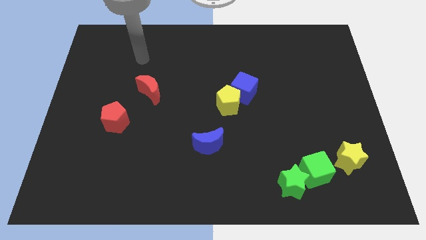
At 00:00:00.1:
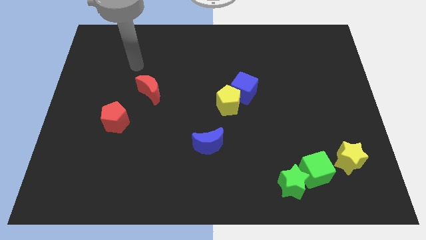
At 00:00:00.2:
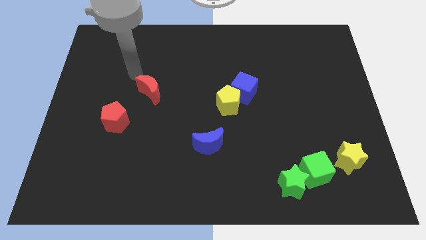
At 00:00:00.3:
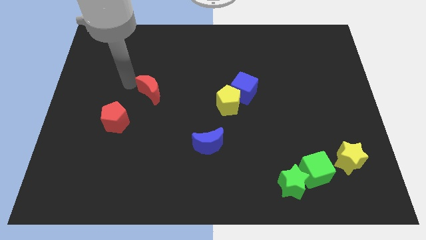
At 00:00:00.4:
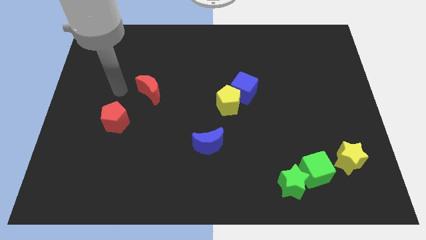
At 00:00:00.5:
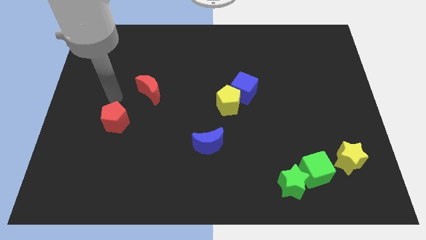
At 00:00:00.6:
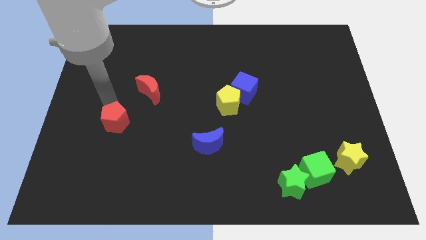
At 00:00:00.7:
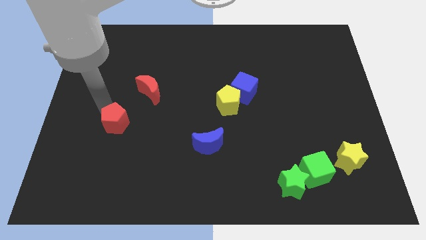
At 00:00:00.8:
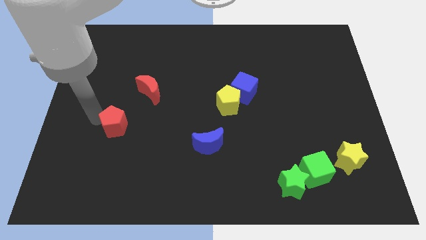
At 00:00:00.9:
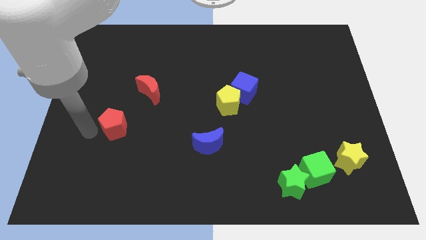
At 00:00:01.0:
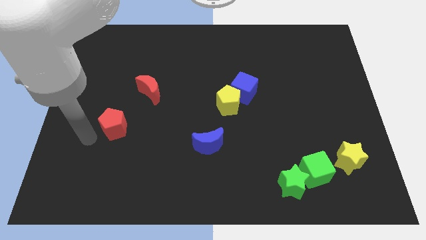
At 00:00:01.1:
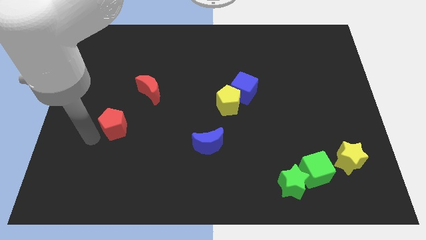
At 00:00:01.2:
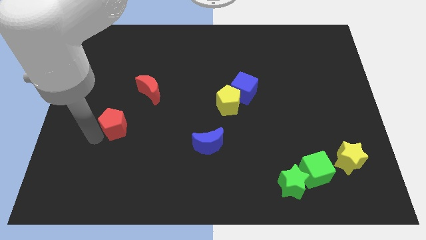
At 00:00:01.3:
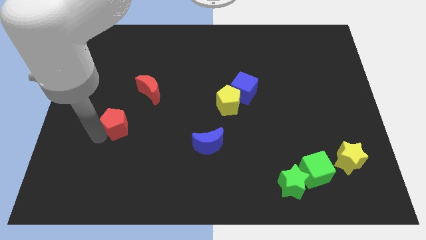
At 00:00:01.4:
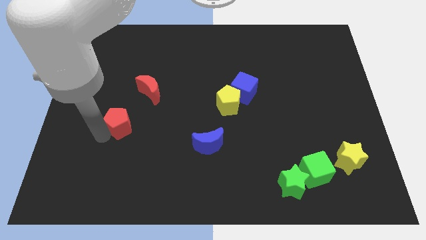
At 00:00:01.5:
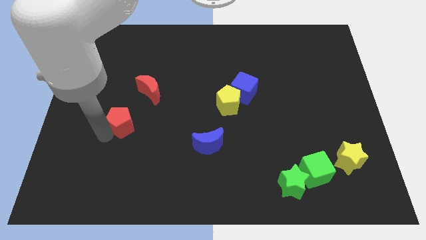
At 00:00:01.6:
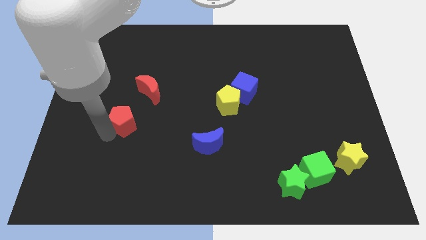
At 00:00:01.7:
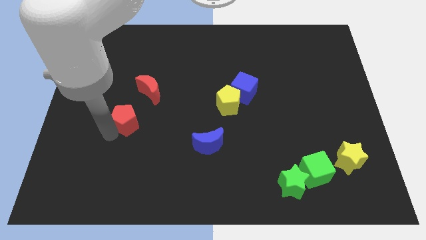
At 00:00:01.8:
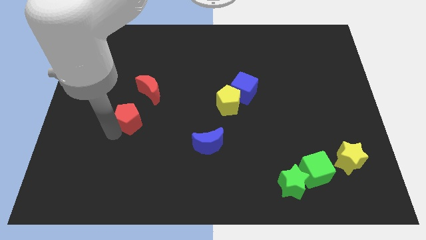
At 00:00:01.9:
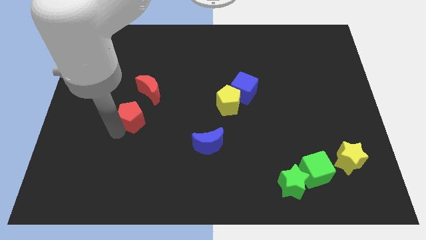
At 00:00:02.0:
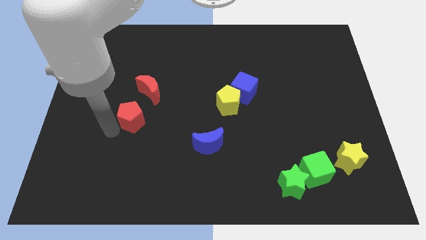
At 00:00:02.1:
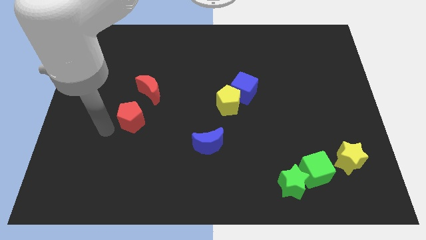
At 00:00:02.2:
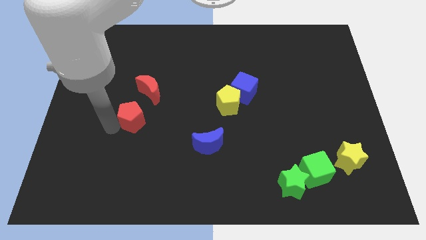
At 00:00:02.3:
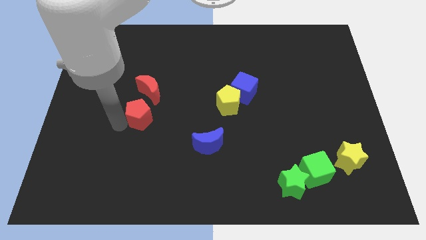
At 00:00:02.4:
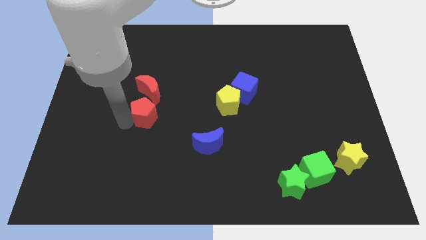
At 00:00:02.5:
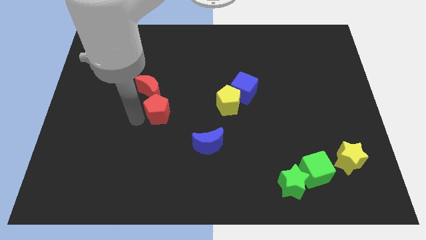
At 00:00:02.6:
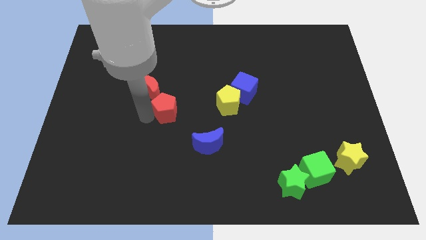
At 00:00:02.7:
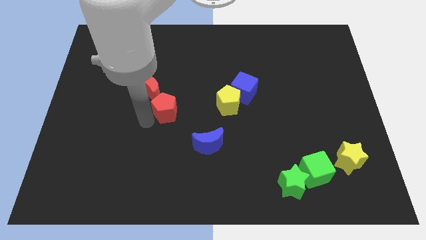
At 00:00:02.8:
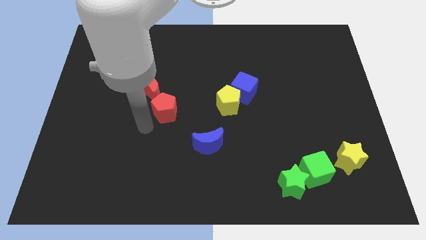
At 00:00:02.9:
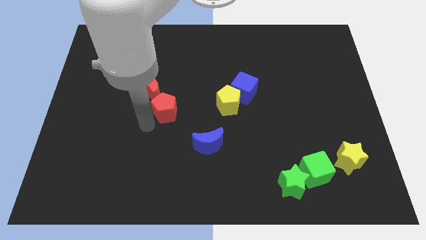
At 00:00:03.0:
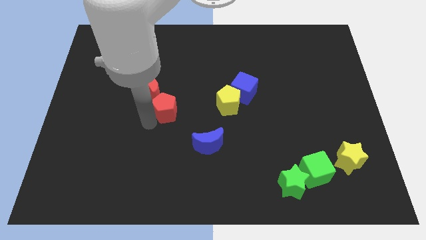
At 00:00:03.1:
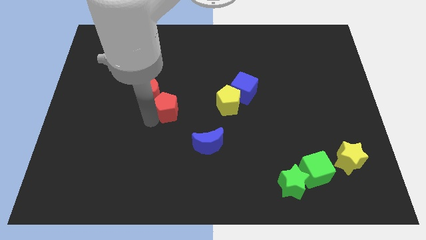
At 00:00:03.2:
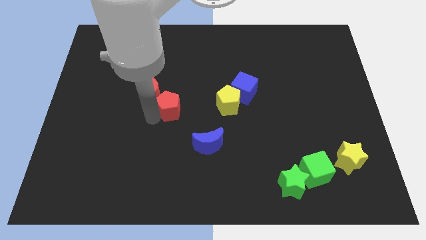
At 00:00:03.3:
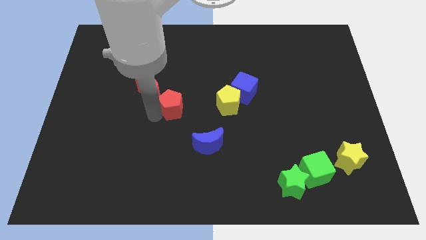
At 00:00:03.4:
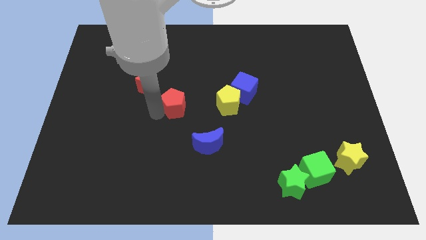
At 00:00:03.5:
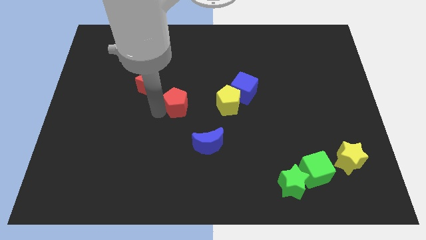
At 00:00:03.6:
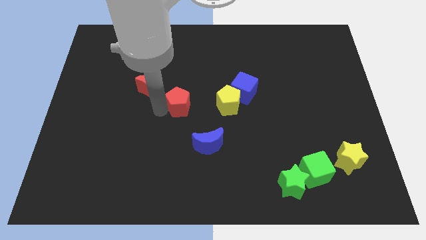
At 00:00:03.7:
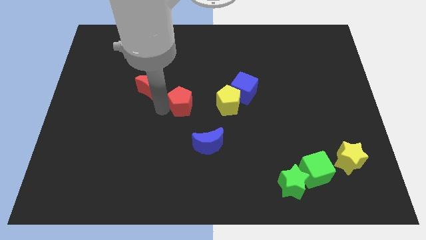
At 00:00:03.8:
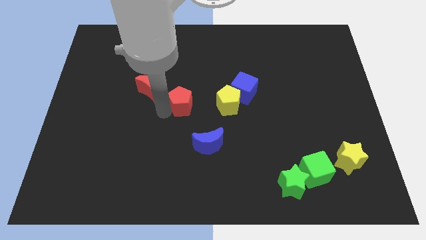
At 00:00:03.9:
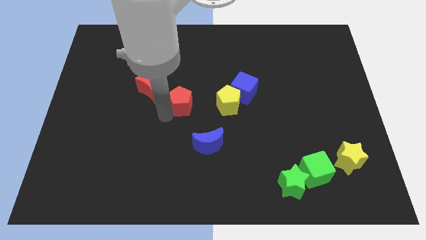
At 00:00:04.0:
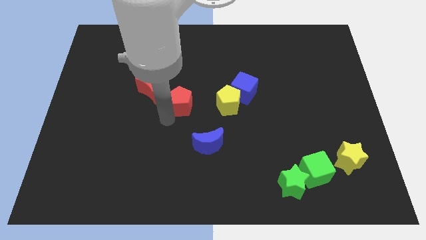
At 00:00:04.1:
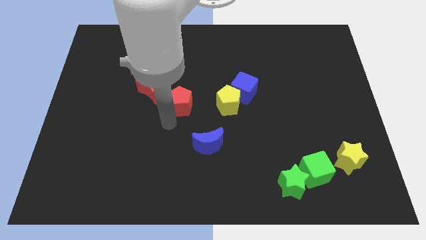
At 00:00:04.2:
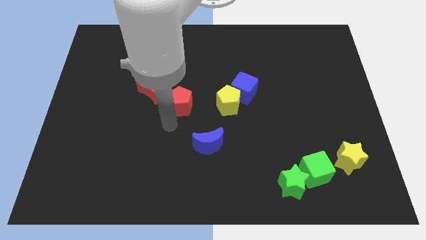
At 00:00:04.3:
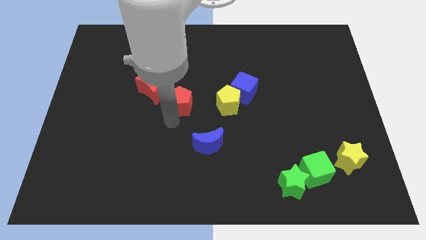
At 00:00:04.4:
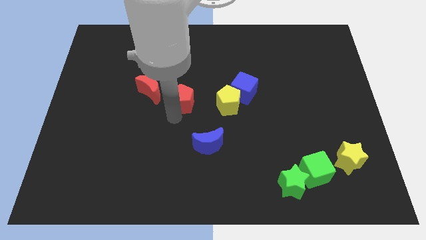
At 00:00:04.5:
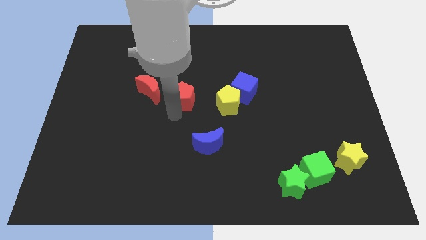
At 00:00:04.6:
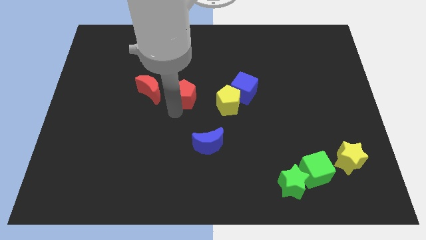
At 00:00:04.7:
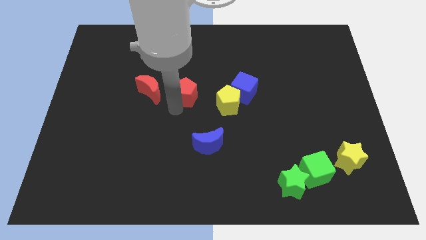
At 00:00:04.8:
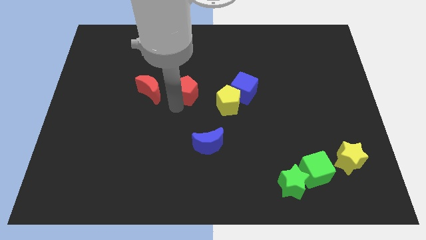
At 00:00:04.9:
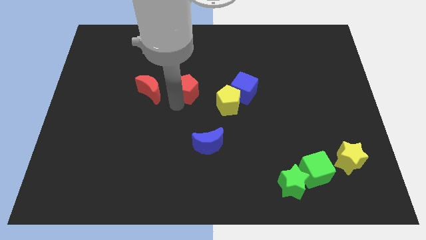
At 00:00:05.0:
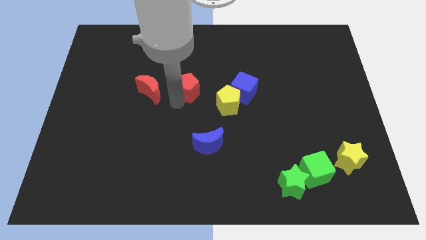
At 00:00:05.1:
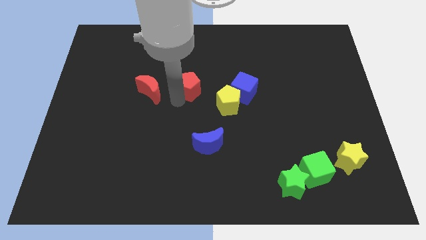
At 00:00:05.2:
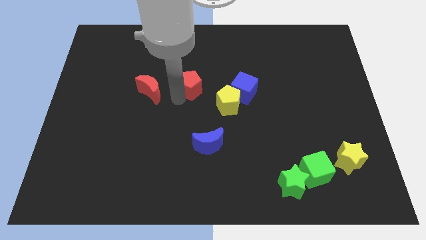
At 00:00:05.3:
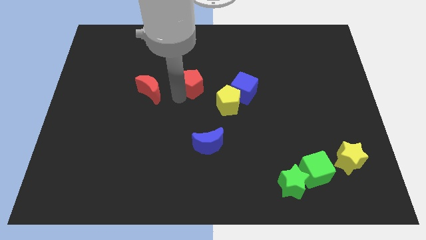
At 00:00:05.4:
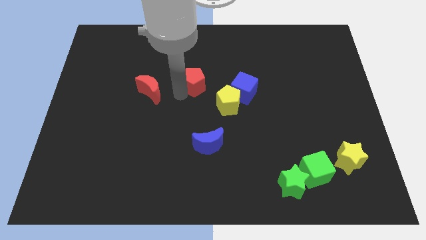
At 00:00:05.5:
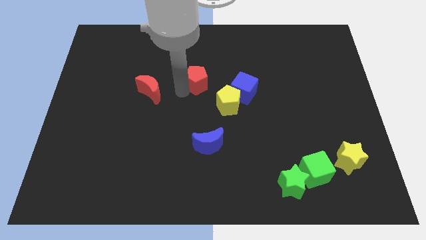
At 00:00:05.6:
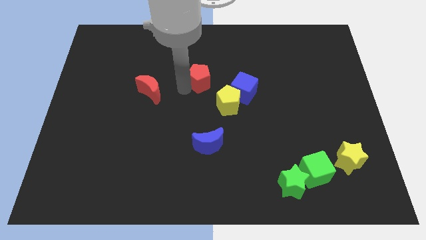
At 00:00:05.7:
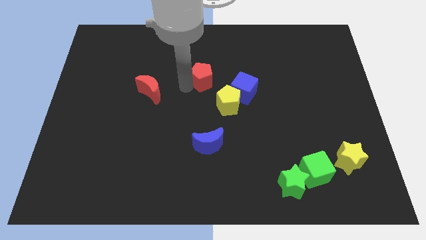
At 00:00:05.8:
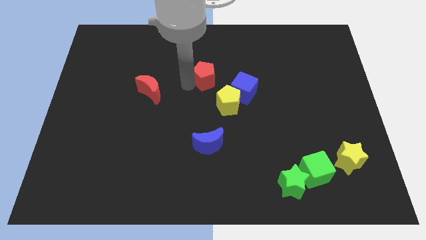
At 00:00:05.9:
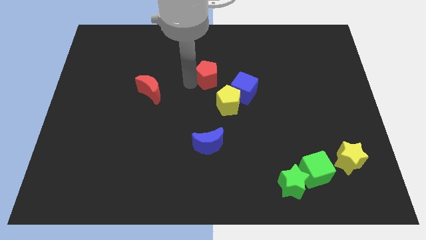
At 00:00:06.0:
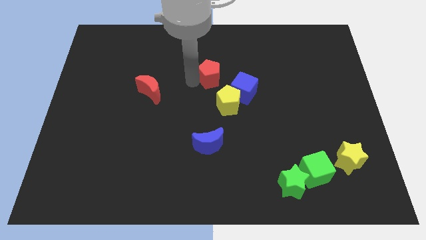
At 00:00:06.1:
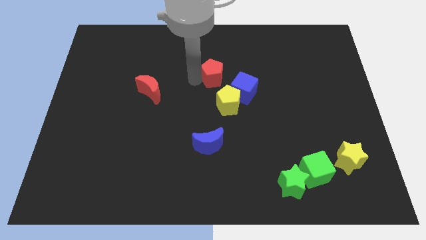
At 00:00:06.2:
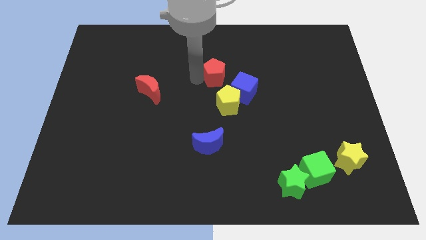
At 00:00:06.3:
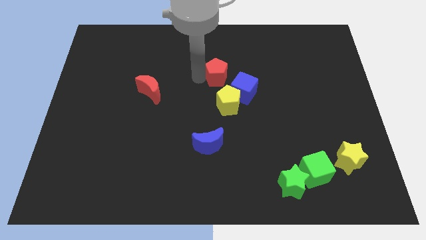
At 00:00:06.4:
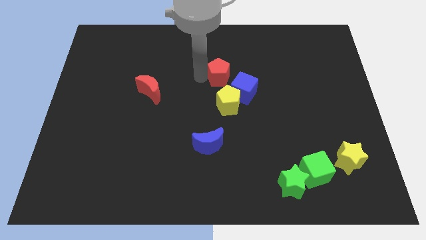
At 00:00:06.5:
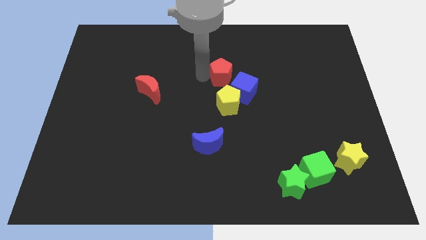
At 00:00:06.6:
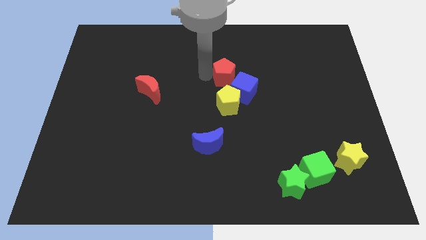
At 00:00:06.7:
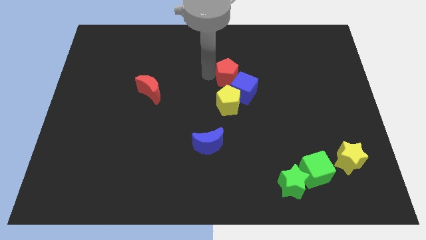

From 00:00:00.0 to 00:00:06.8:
move the red pentagon to the blue cube

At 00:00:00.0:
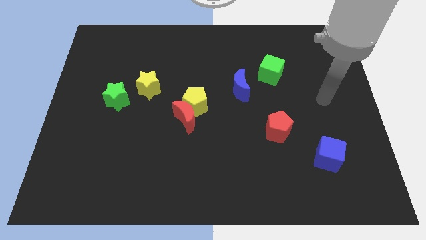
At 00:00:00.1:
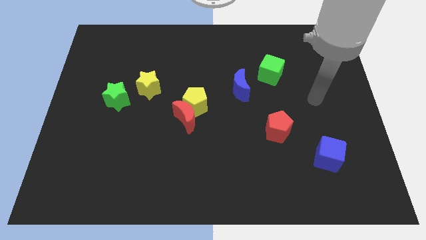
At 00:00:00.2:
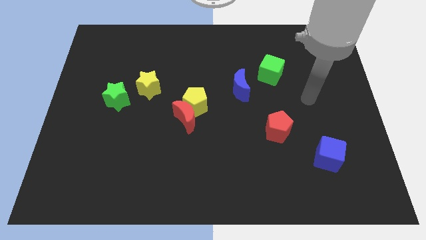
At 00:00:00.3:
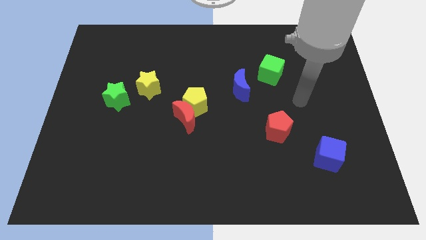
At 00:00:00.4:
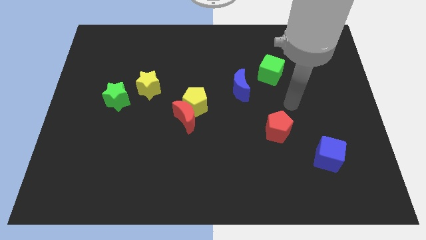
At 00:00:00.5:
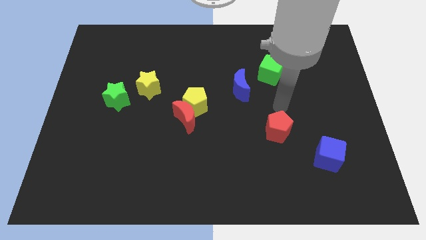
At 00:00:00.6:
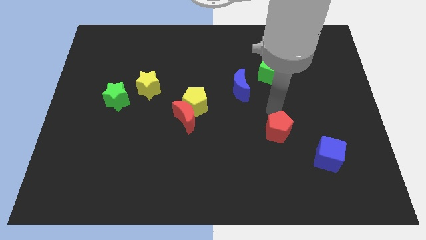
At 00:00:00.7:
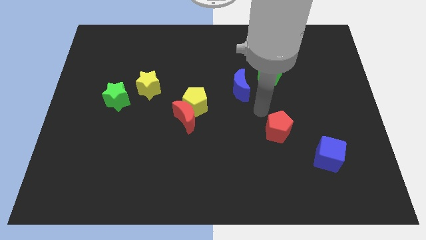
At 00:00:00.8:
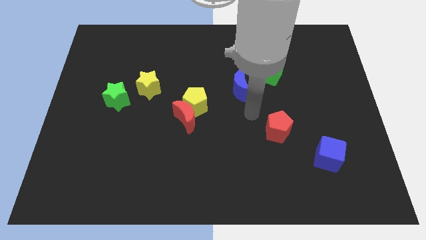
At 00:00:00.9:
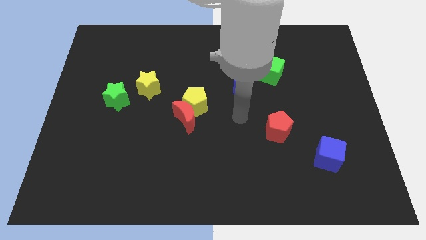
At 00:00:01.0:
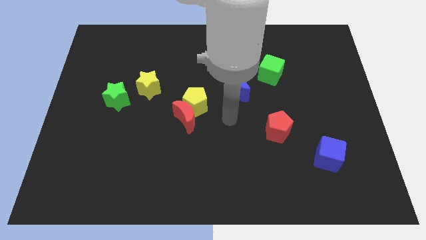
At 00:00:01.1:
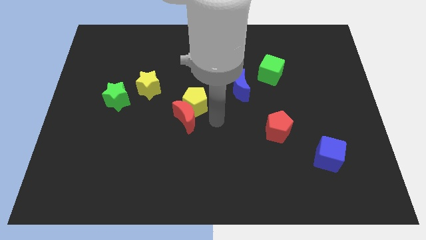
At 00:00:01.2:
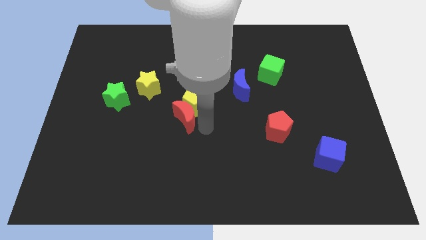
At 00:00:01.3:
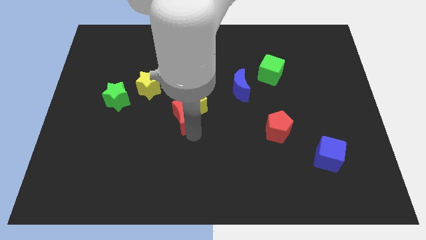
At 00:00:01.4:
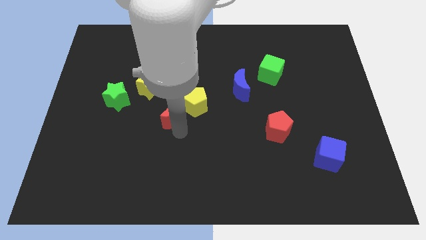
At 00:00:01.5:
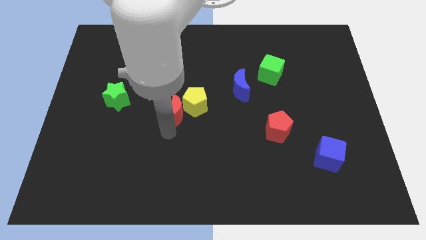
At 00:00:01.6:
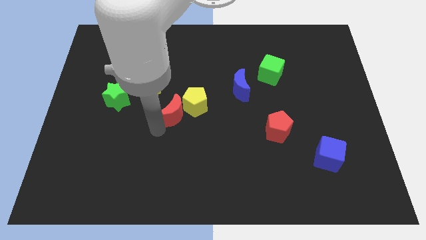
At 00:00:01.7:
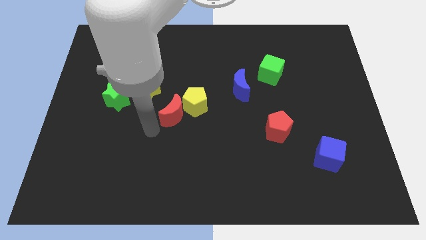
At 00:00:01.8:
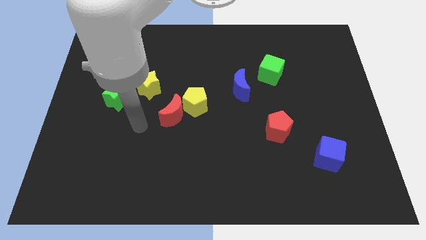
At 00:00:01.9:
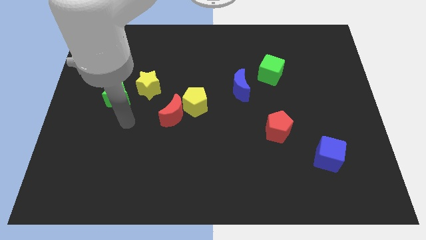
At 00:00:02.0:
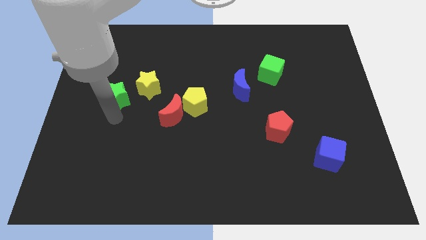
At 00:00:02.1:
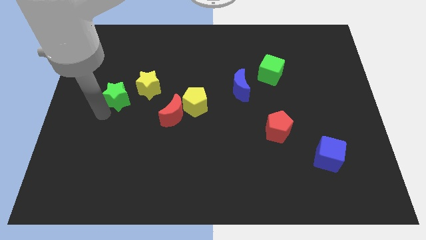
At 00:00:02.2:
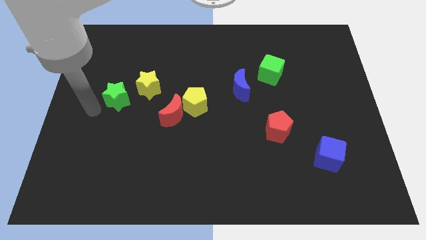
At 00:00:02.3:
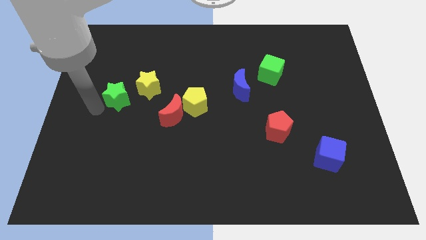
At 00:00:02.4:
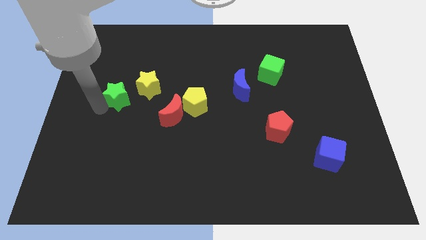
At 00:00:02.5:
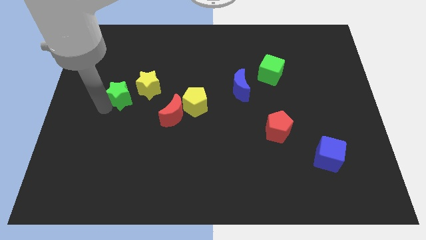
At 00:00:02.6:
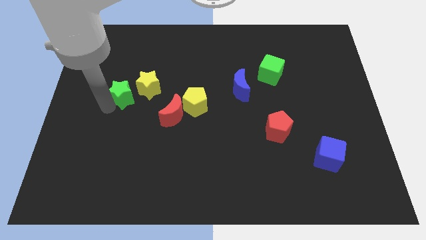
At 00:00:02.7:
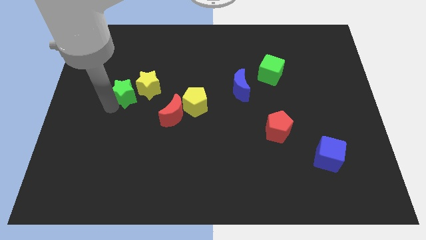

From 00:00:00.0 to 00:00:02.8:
put the green star to the yellow star
